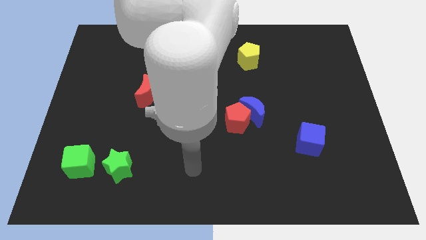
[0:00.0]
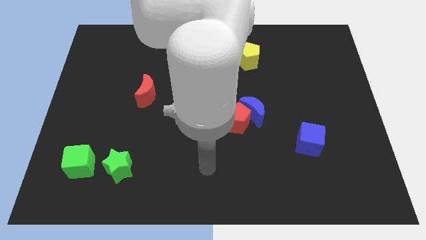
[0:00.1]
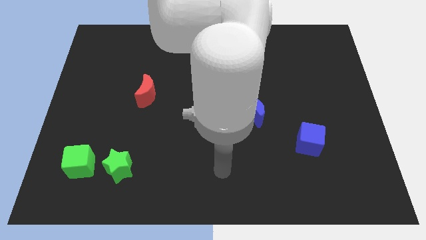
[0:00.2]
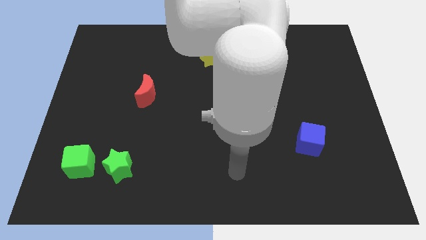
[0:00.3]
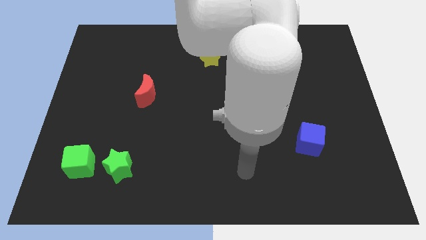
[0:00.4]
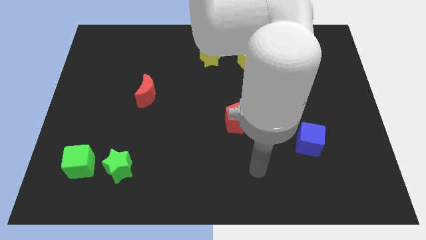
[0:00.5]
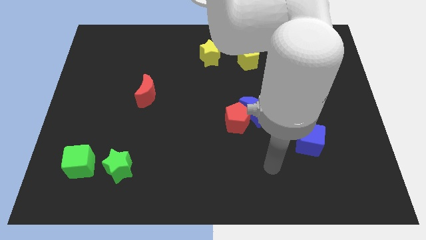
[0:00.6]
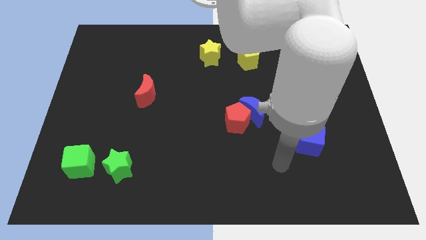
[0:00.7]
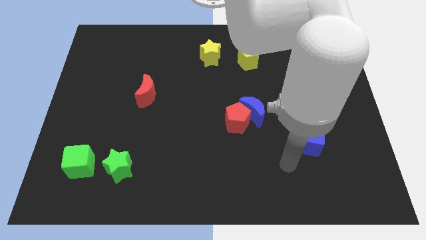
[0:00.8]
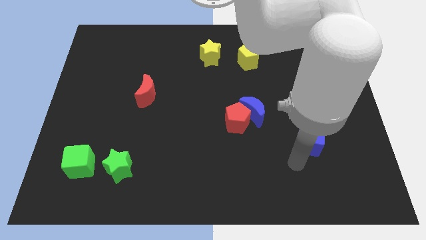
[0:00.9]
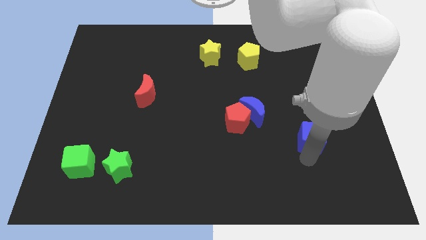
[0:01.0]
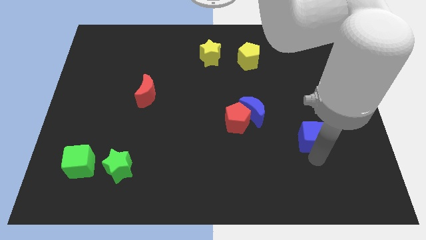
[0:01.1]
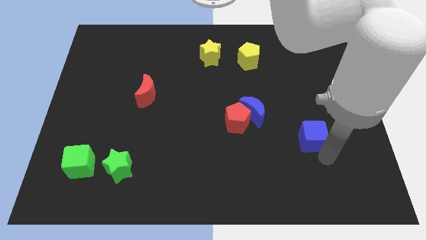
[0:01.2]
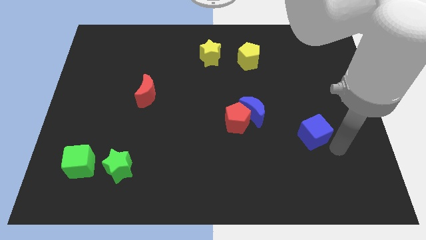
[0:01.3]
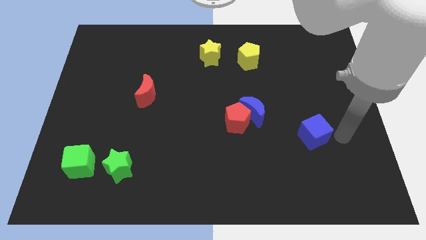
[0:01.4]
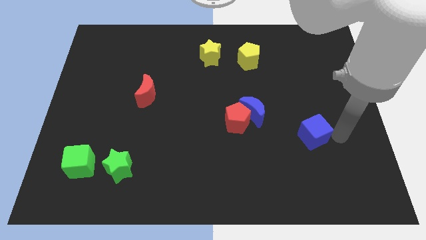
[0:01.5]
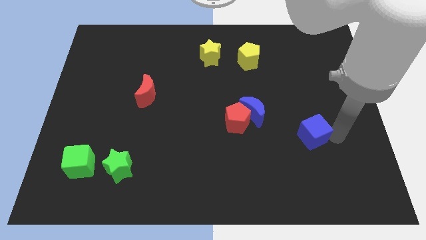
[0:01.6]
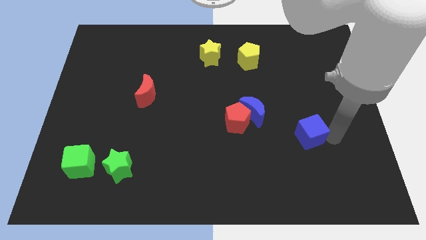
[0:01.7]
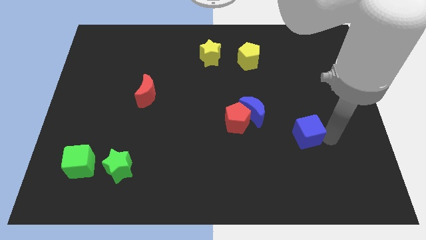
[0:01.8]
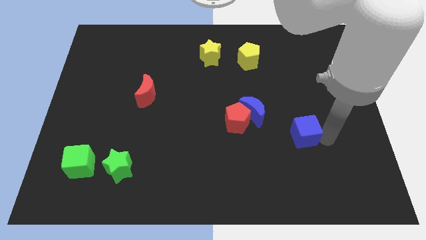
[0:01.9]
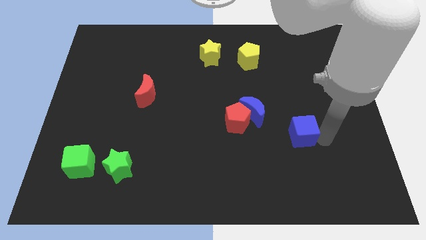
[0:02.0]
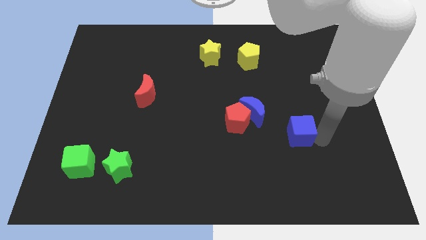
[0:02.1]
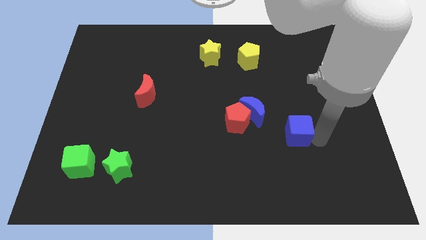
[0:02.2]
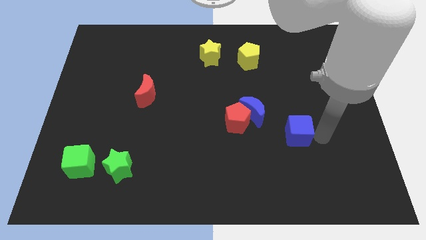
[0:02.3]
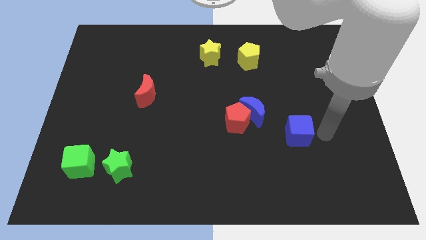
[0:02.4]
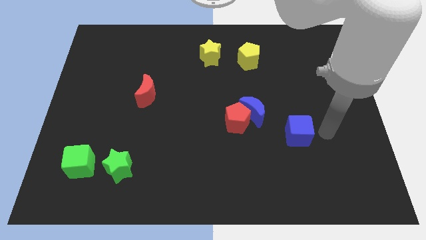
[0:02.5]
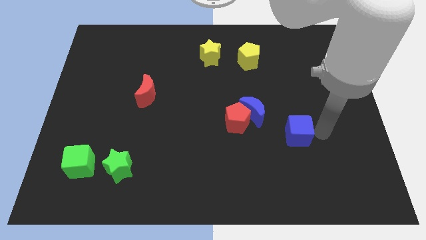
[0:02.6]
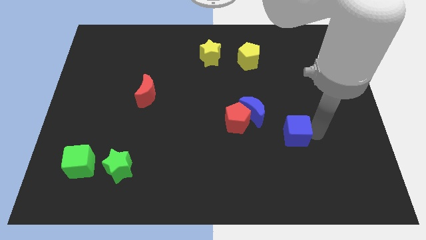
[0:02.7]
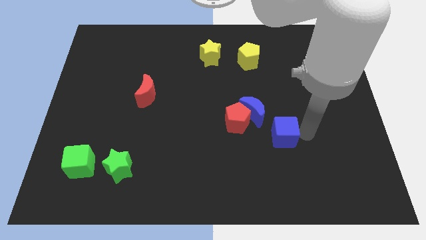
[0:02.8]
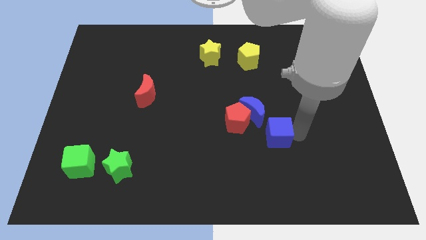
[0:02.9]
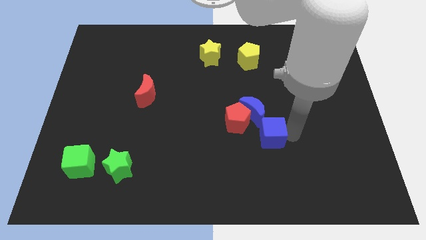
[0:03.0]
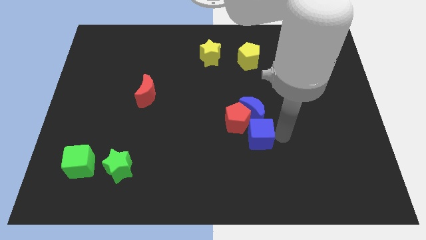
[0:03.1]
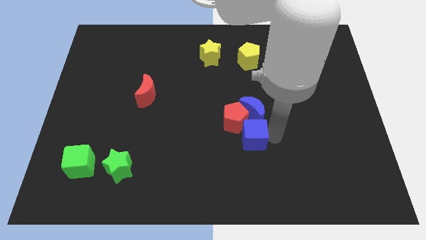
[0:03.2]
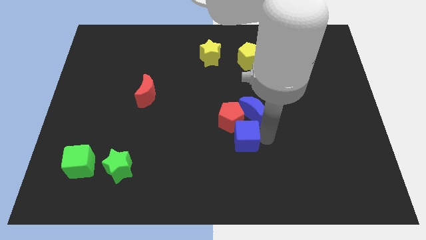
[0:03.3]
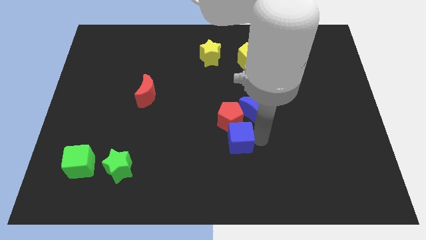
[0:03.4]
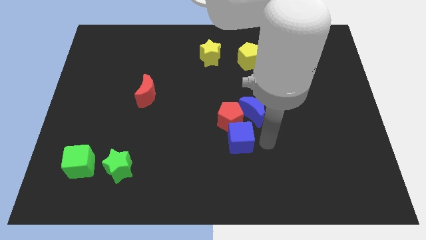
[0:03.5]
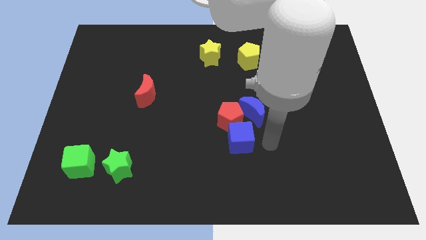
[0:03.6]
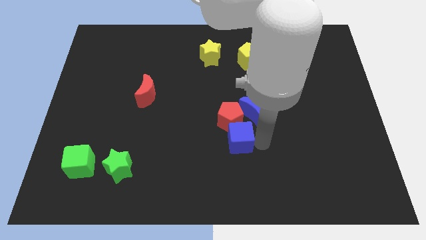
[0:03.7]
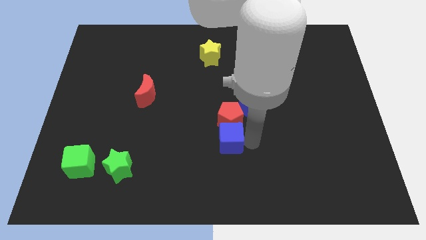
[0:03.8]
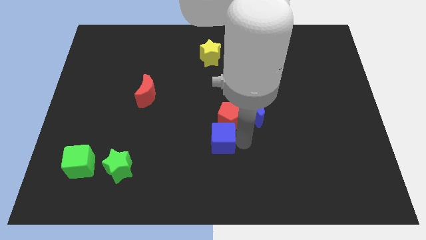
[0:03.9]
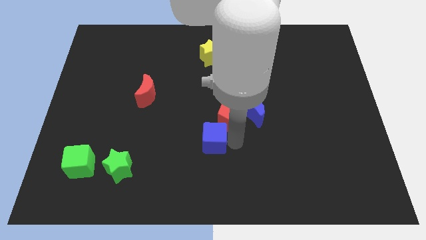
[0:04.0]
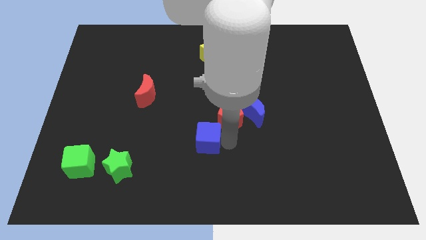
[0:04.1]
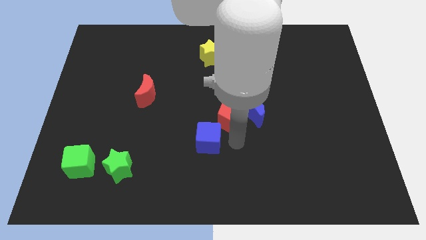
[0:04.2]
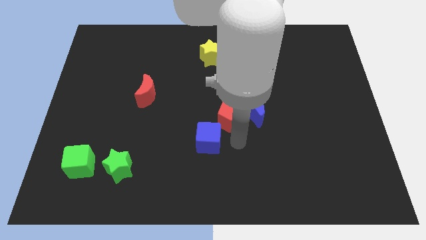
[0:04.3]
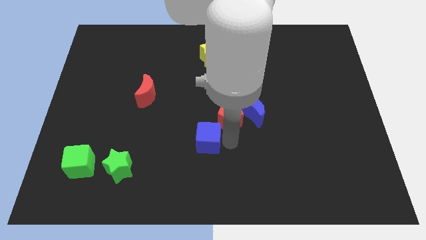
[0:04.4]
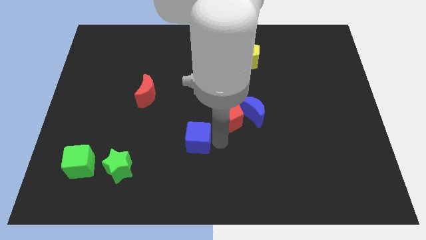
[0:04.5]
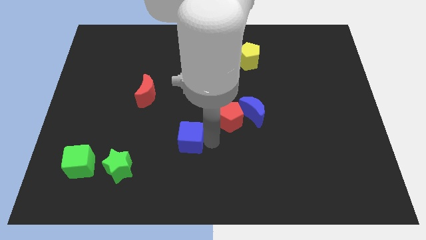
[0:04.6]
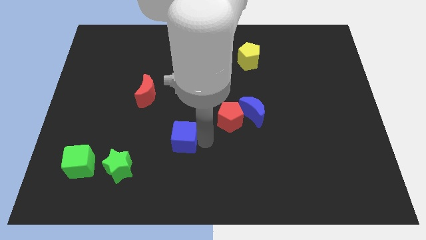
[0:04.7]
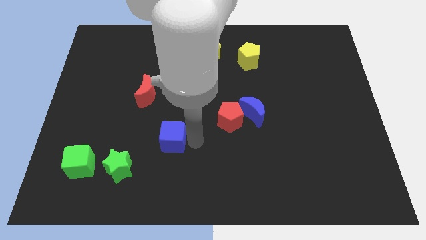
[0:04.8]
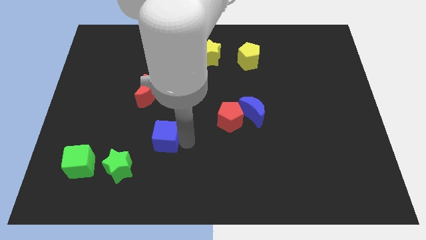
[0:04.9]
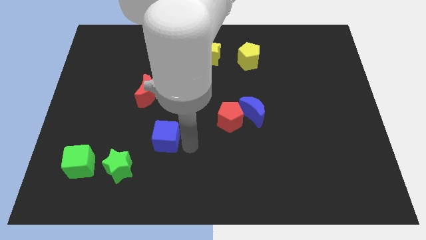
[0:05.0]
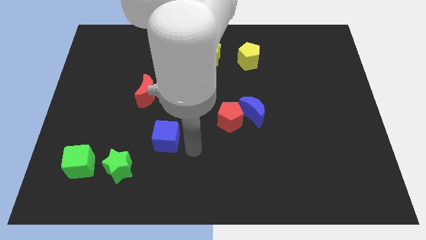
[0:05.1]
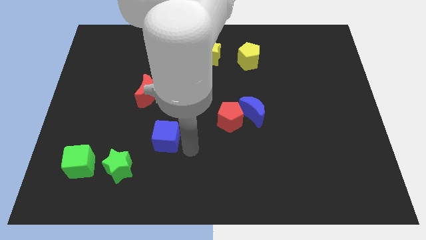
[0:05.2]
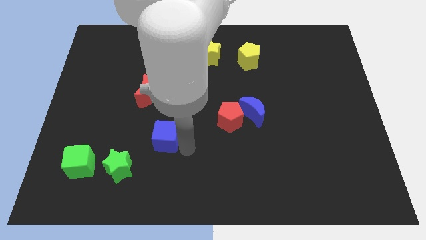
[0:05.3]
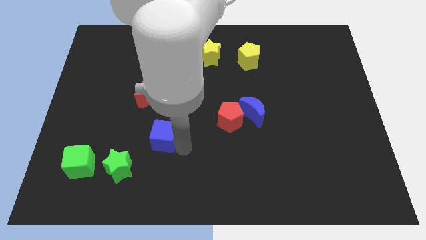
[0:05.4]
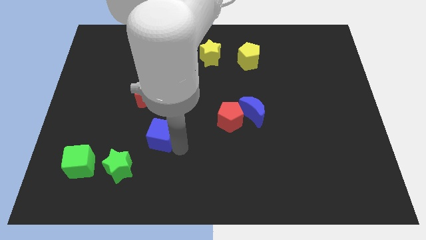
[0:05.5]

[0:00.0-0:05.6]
put the blue cube below the red moon

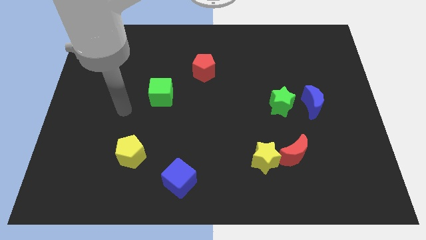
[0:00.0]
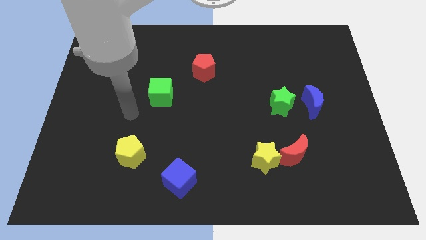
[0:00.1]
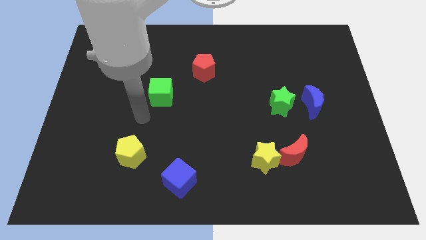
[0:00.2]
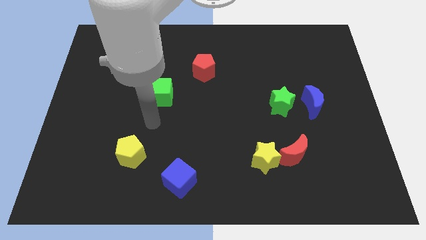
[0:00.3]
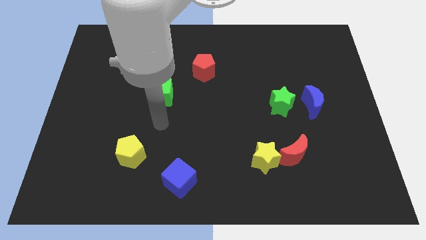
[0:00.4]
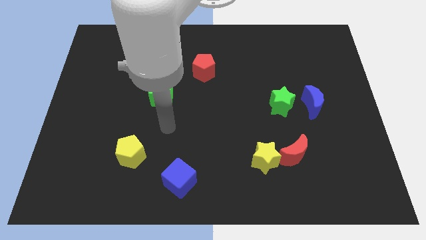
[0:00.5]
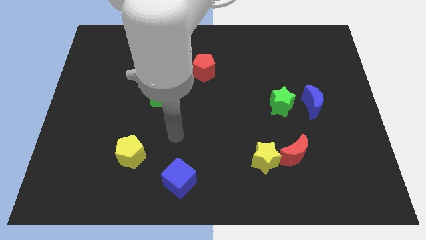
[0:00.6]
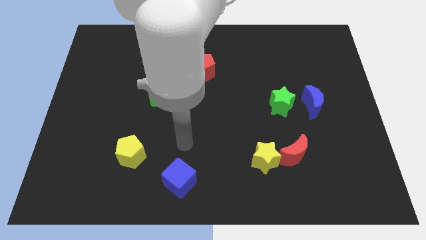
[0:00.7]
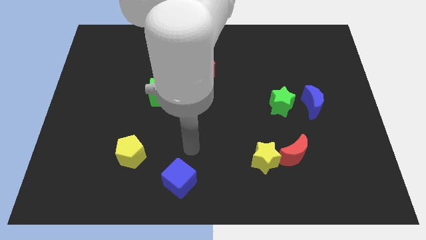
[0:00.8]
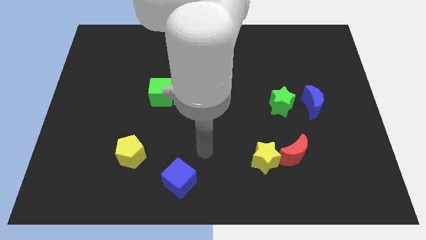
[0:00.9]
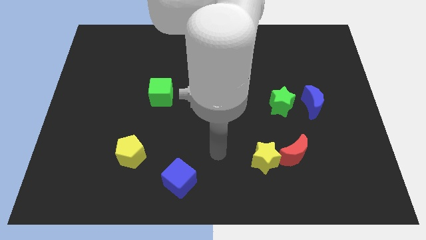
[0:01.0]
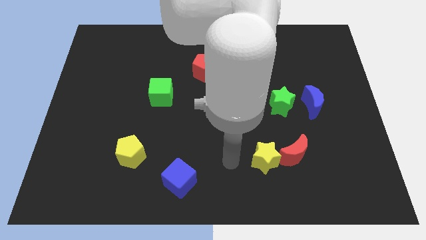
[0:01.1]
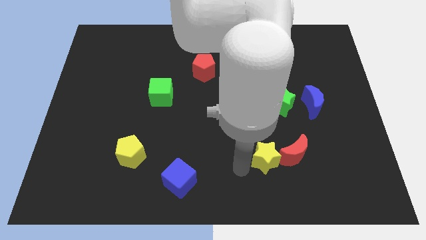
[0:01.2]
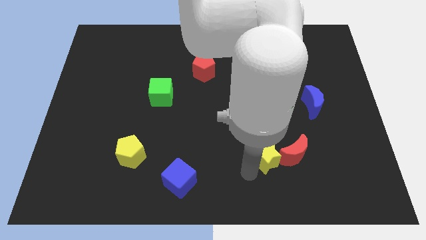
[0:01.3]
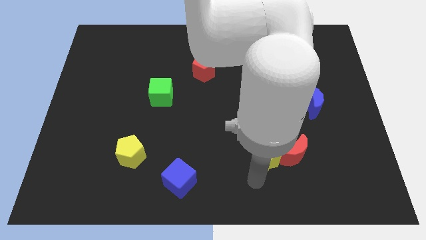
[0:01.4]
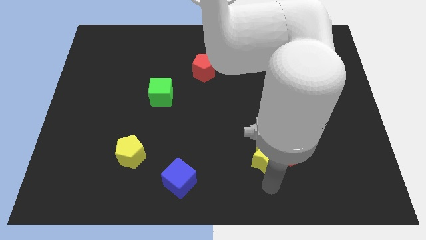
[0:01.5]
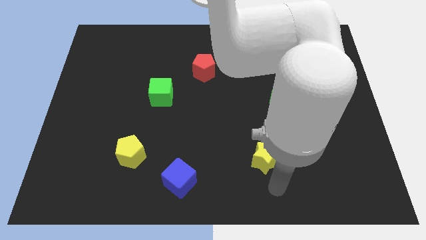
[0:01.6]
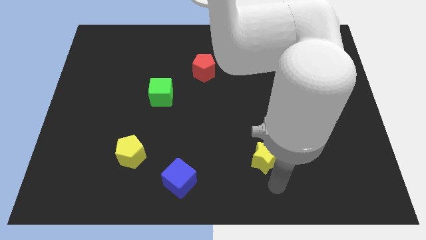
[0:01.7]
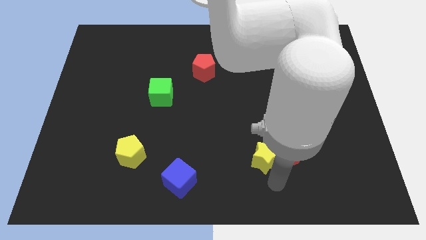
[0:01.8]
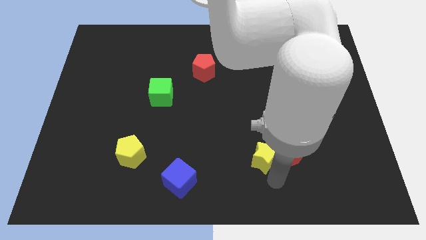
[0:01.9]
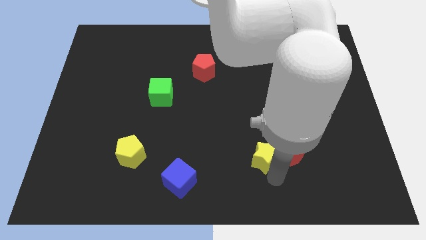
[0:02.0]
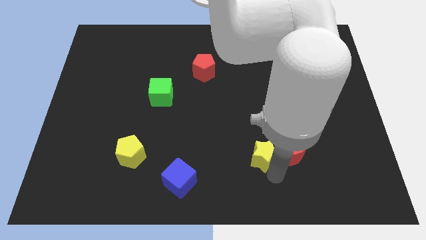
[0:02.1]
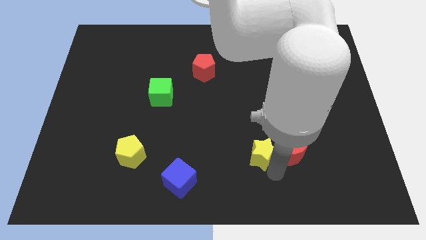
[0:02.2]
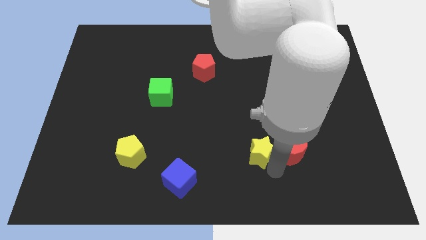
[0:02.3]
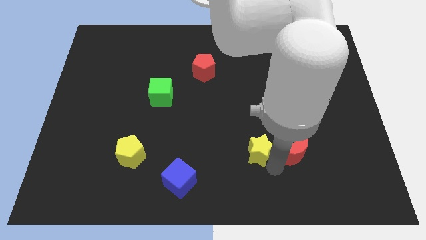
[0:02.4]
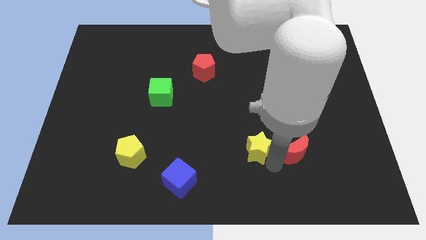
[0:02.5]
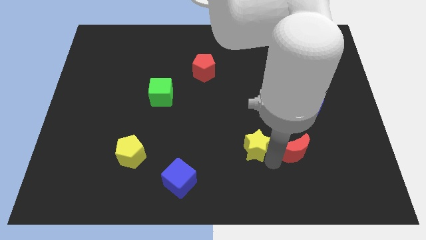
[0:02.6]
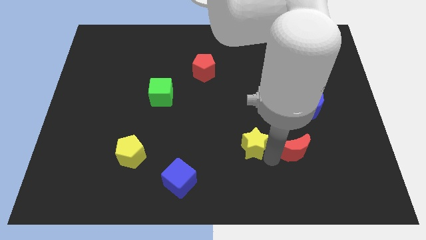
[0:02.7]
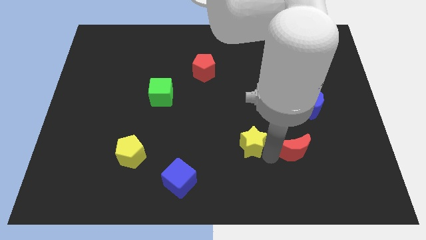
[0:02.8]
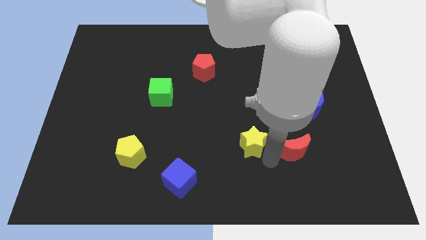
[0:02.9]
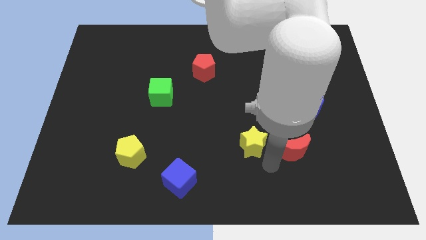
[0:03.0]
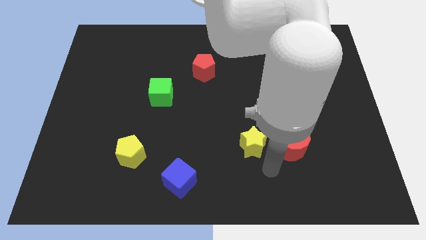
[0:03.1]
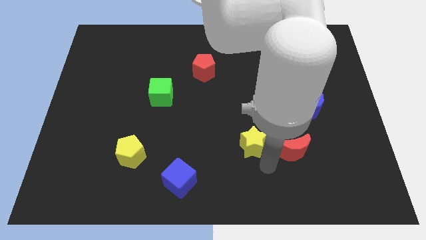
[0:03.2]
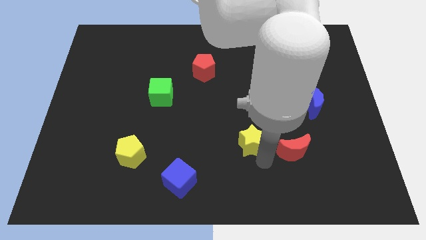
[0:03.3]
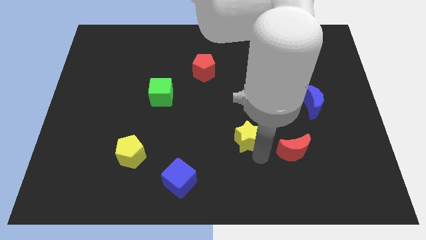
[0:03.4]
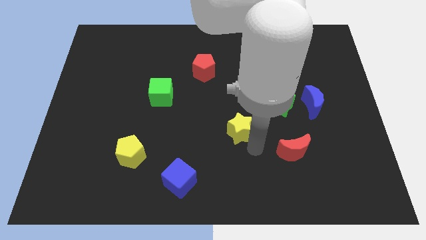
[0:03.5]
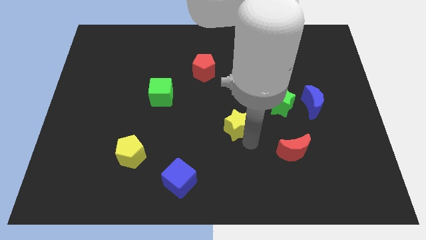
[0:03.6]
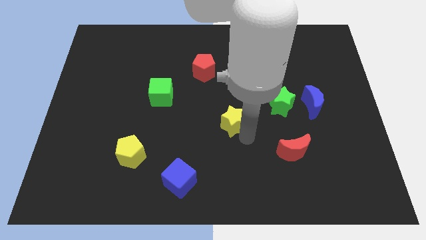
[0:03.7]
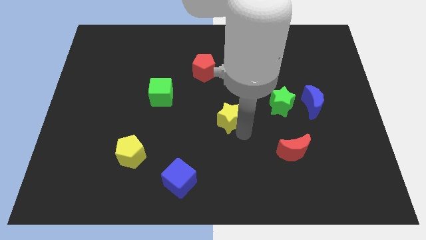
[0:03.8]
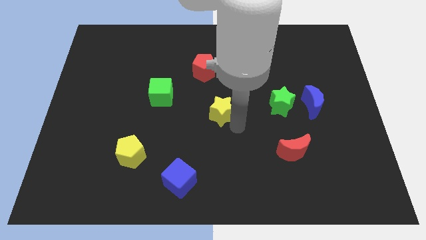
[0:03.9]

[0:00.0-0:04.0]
slide the yellow star below the red pentagon
